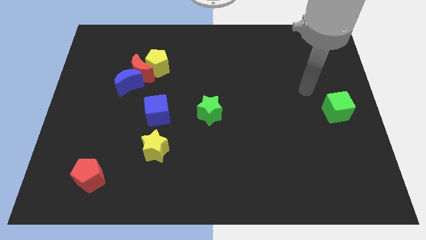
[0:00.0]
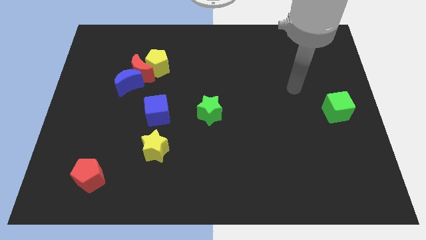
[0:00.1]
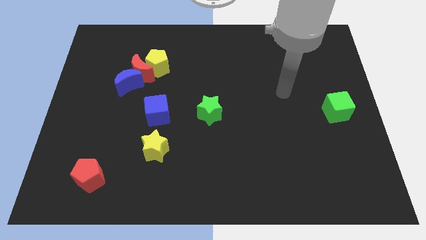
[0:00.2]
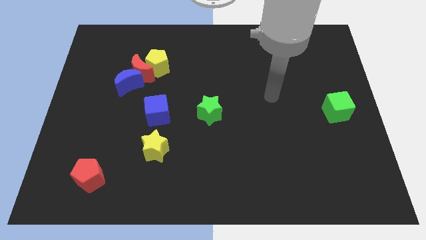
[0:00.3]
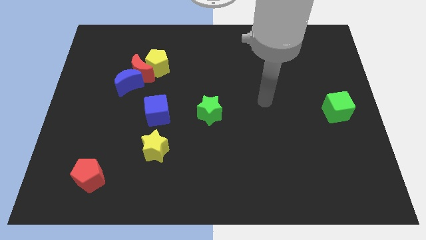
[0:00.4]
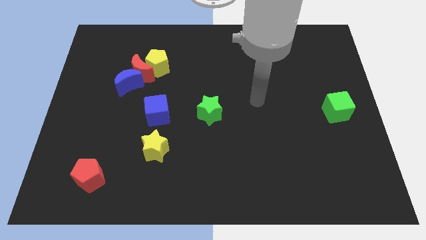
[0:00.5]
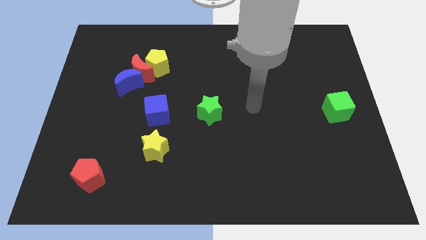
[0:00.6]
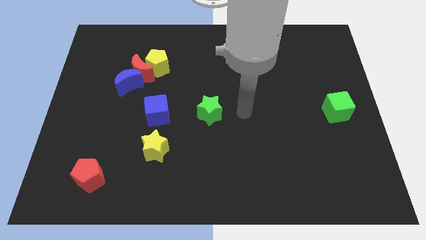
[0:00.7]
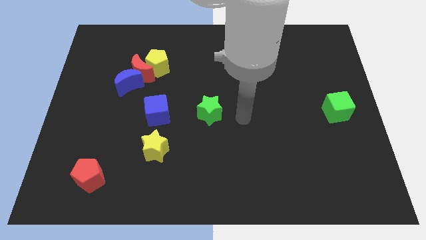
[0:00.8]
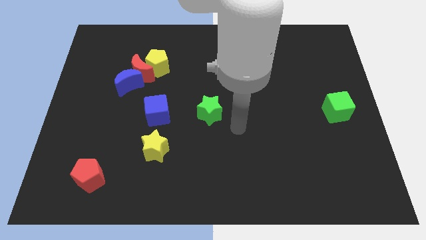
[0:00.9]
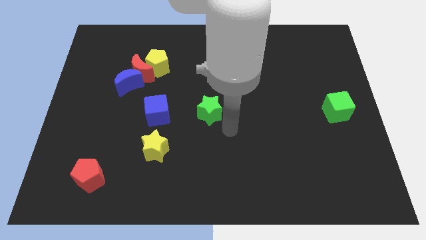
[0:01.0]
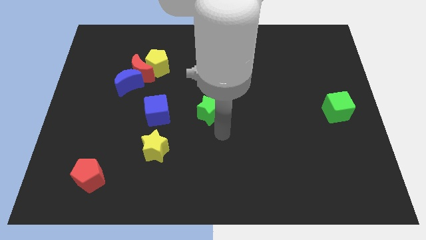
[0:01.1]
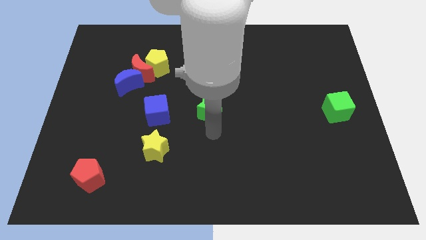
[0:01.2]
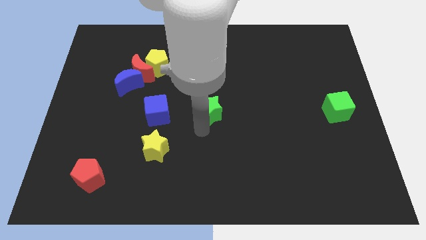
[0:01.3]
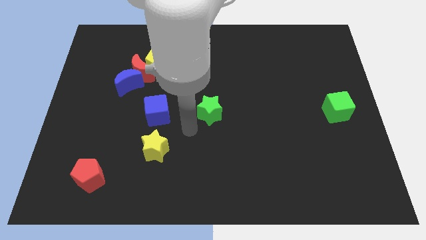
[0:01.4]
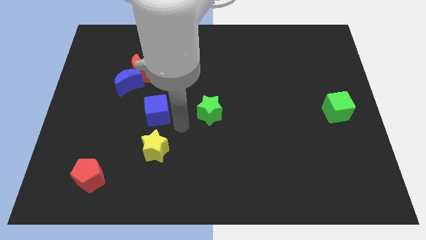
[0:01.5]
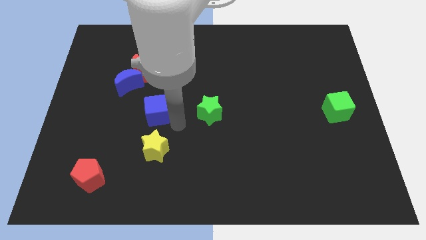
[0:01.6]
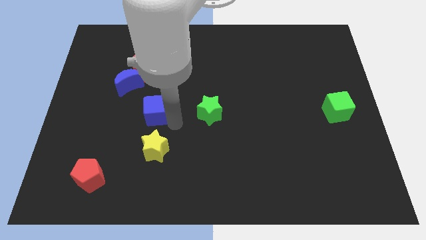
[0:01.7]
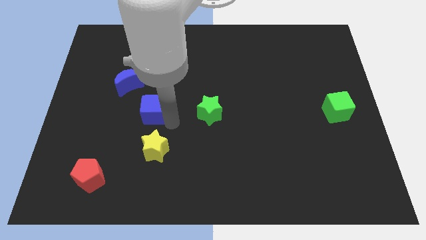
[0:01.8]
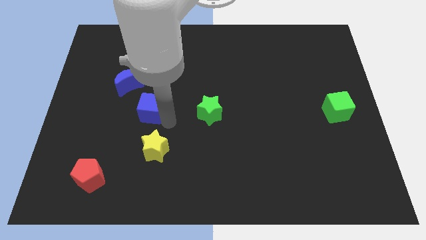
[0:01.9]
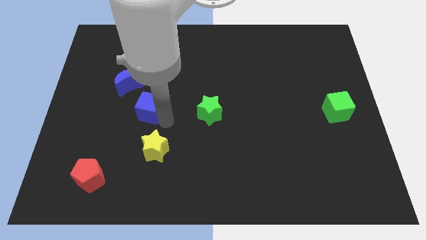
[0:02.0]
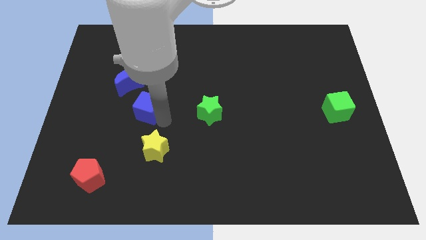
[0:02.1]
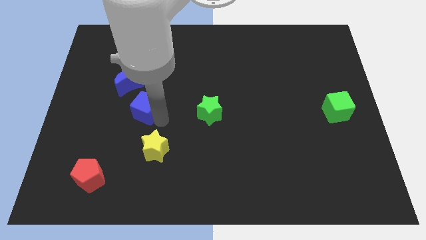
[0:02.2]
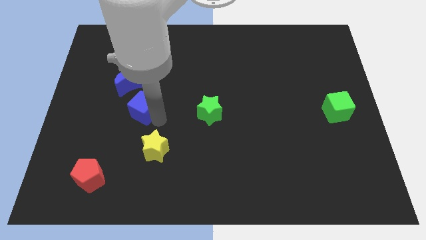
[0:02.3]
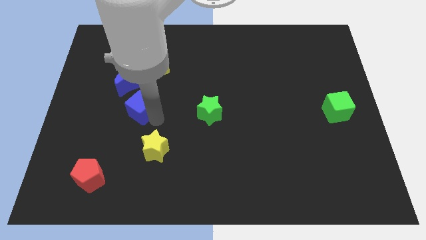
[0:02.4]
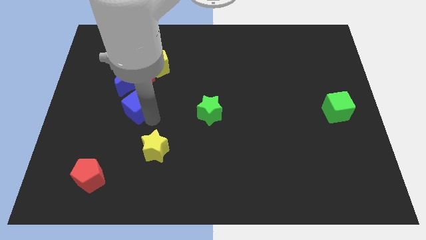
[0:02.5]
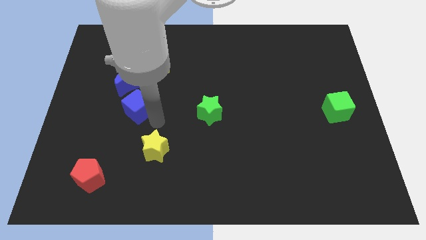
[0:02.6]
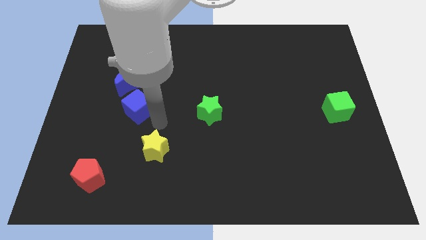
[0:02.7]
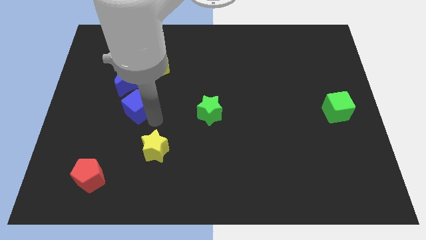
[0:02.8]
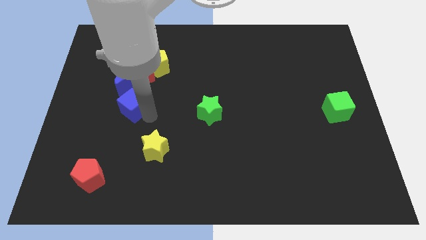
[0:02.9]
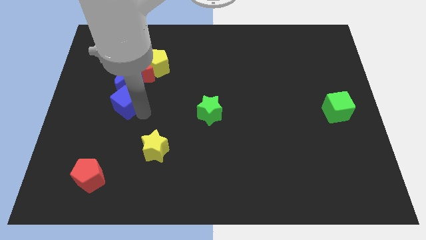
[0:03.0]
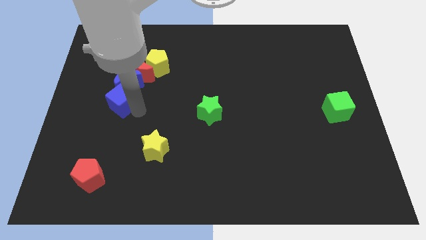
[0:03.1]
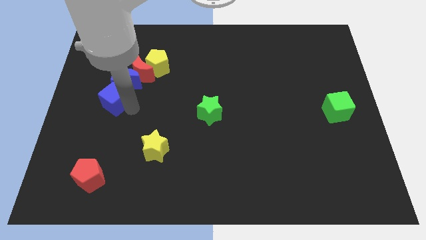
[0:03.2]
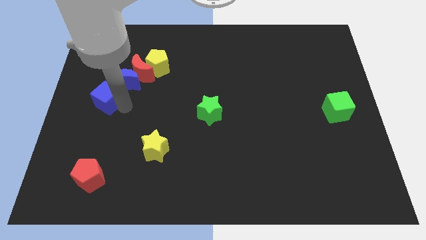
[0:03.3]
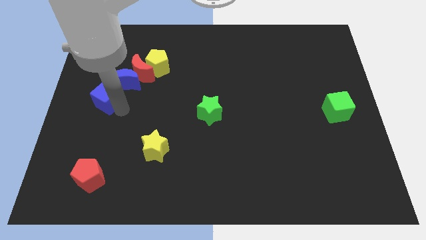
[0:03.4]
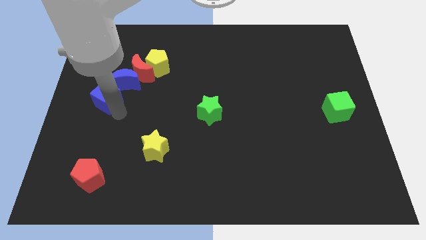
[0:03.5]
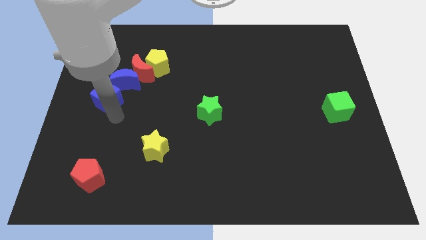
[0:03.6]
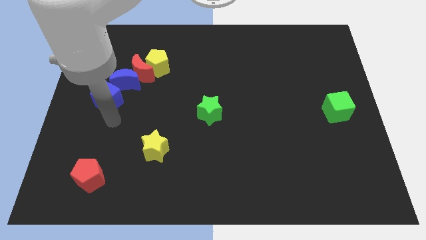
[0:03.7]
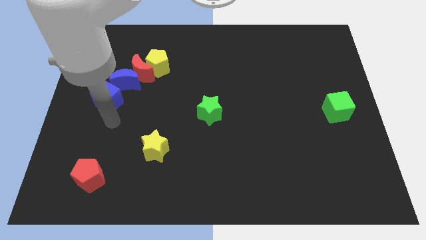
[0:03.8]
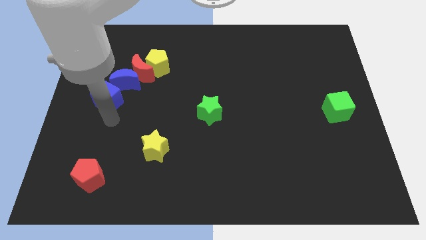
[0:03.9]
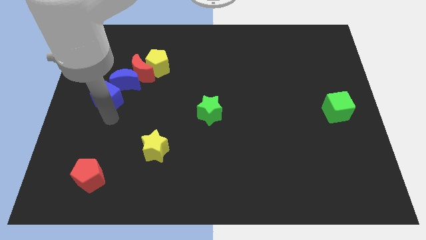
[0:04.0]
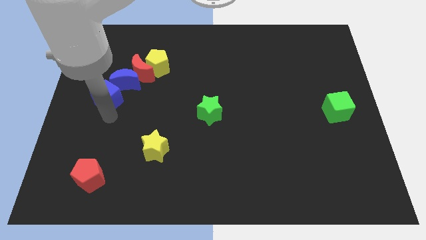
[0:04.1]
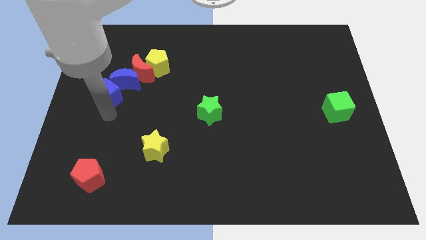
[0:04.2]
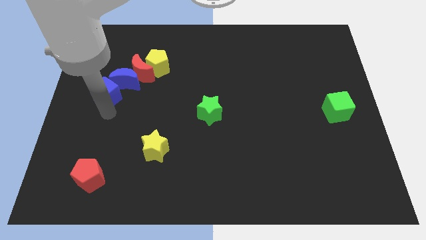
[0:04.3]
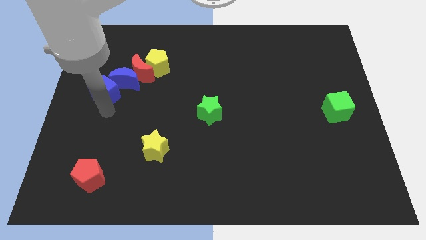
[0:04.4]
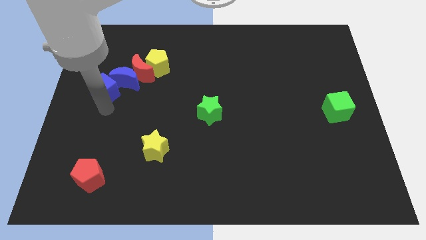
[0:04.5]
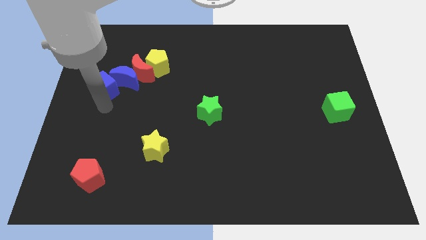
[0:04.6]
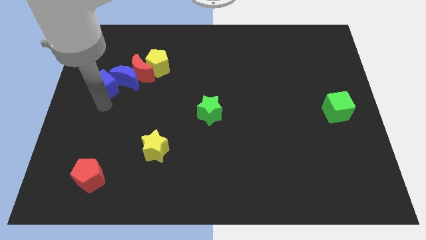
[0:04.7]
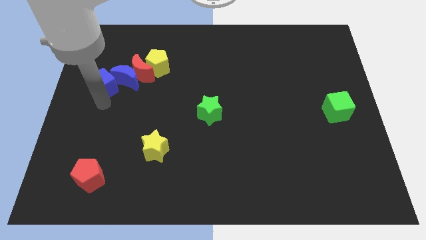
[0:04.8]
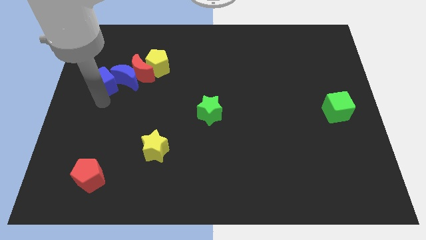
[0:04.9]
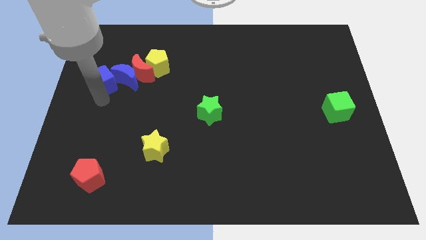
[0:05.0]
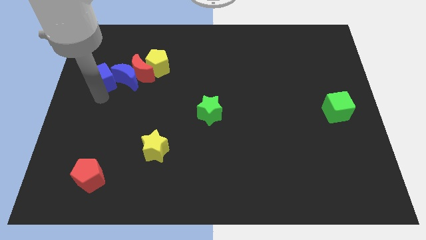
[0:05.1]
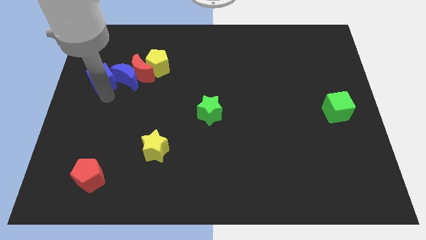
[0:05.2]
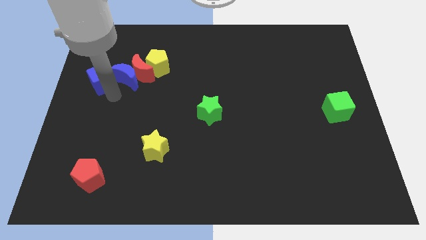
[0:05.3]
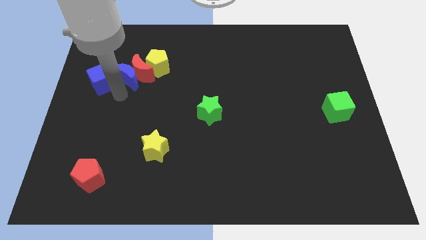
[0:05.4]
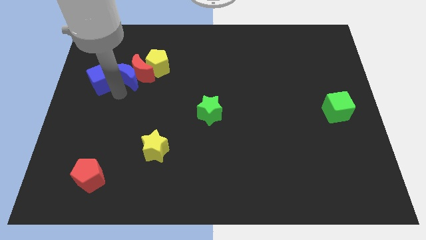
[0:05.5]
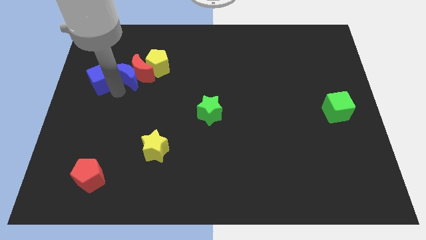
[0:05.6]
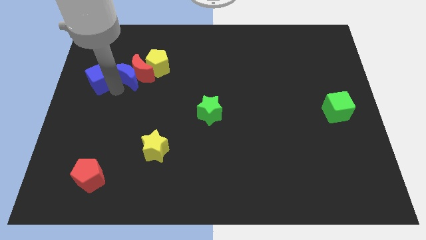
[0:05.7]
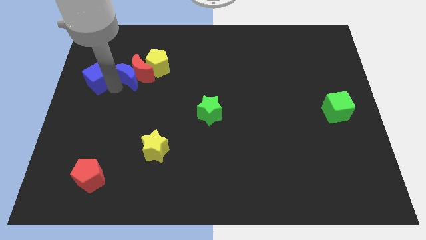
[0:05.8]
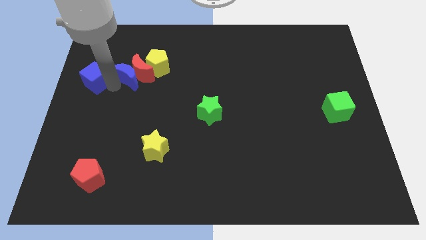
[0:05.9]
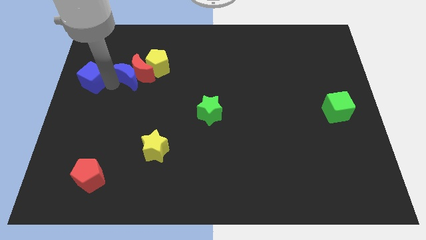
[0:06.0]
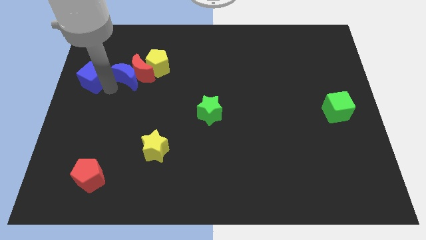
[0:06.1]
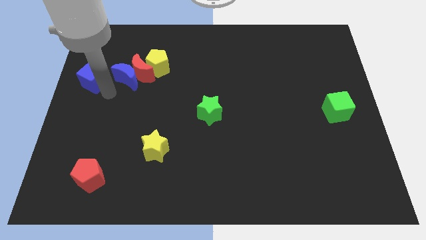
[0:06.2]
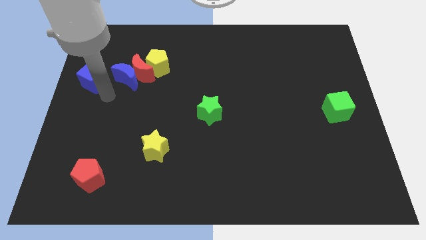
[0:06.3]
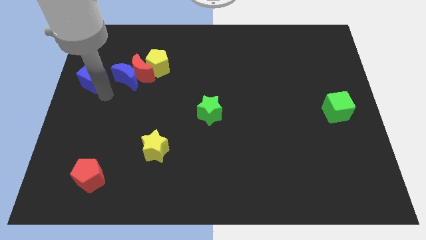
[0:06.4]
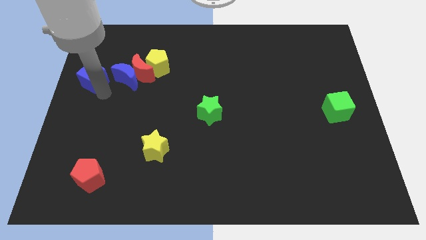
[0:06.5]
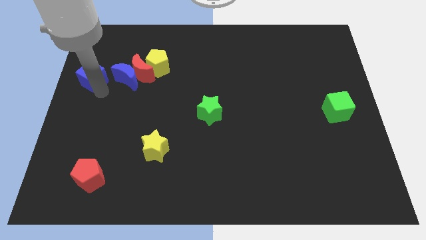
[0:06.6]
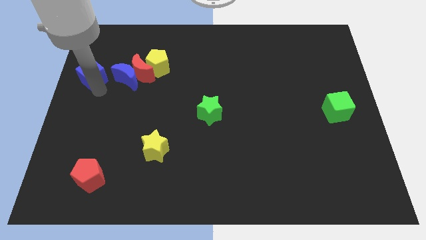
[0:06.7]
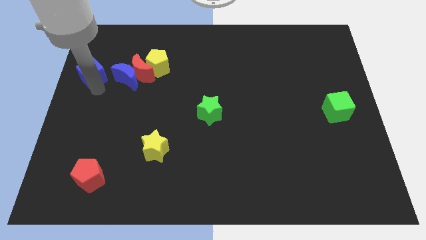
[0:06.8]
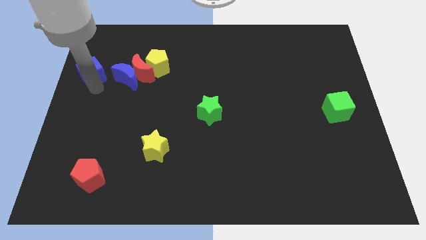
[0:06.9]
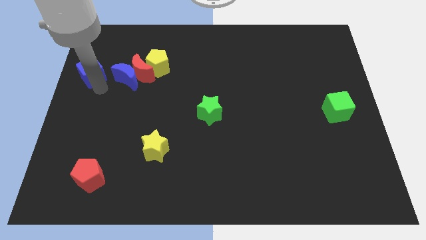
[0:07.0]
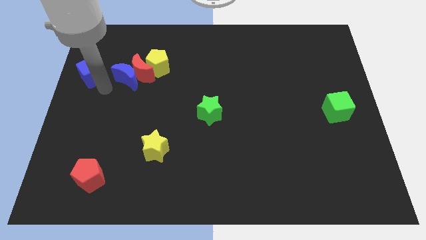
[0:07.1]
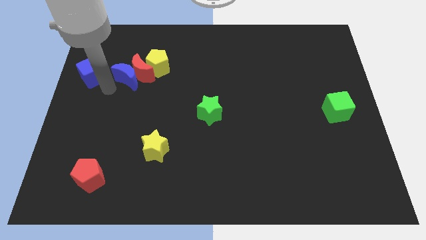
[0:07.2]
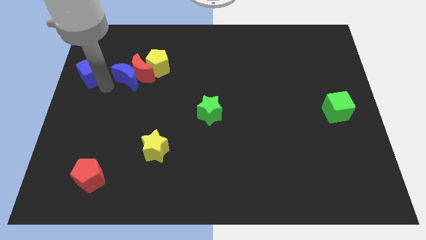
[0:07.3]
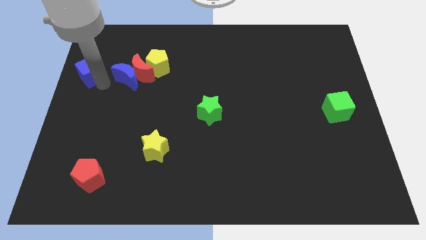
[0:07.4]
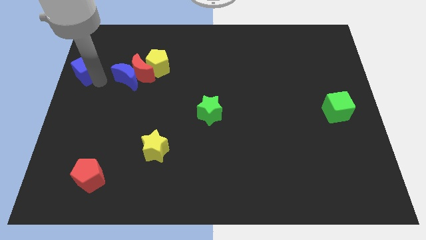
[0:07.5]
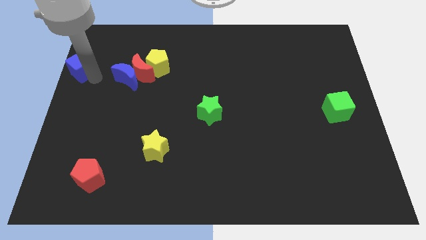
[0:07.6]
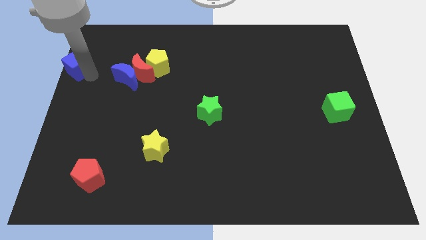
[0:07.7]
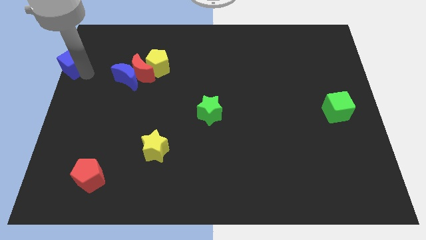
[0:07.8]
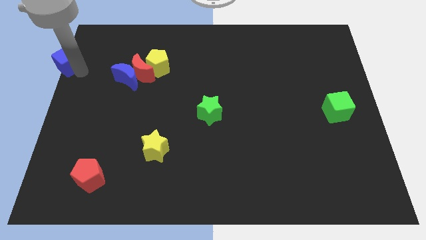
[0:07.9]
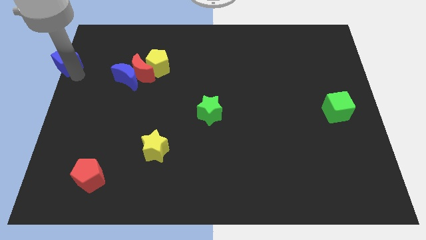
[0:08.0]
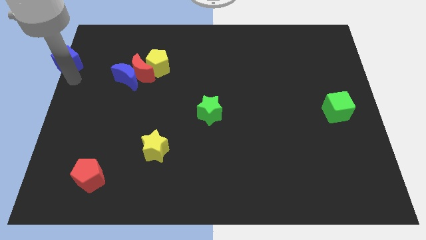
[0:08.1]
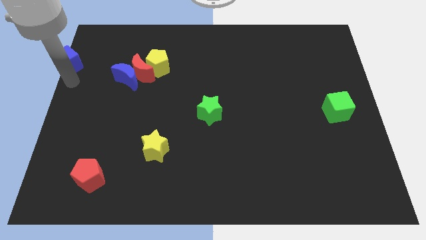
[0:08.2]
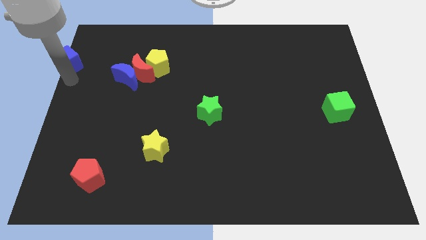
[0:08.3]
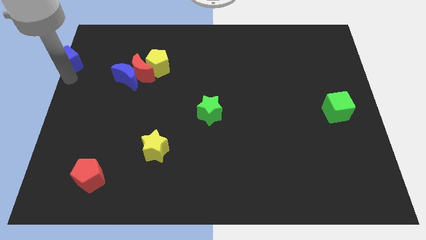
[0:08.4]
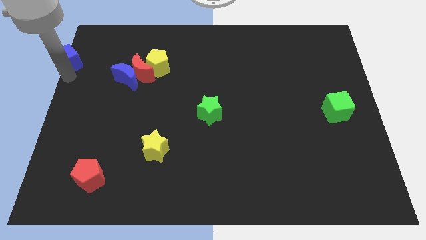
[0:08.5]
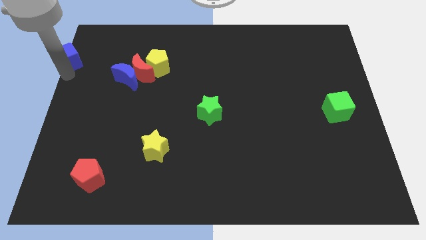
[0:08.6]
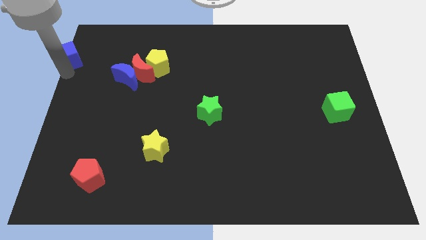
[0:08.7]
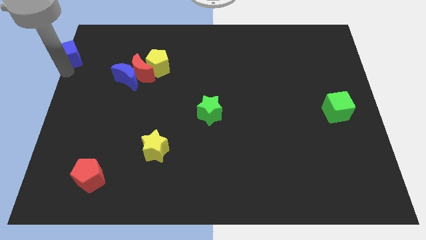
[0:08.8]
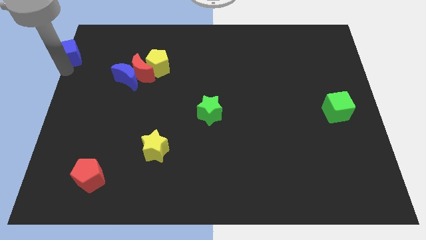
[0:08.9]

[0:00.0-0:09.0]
slide the blue cube to the top left of the board
